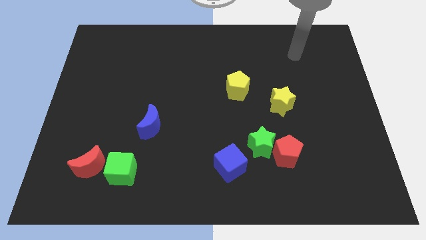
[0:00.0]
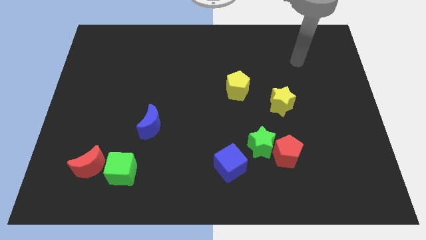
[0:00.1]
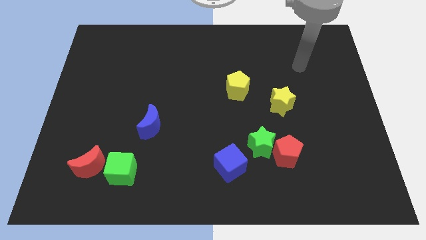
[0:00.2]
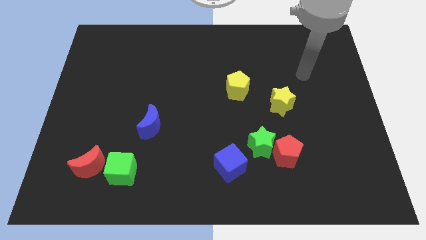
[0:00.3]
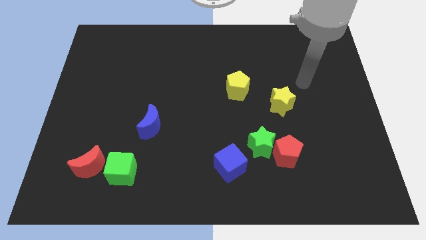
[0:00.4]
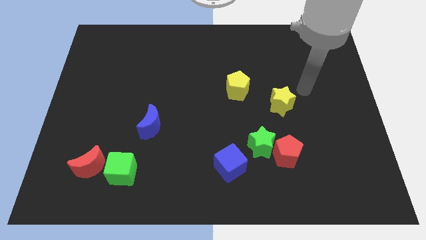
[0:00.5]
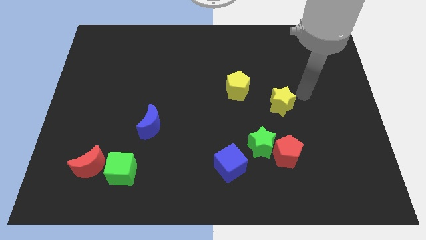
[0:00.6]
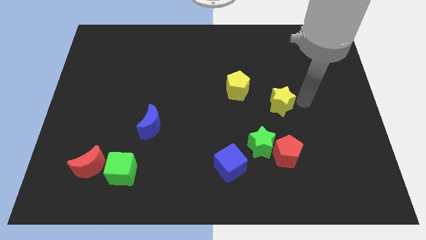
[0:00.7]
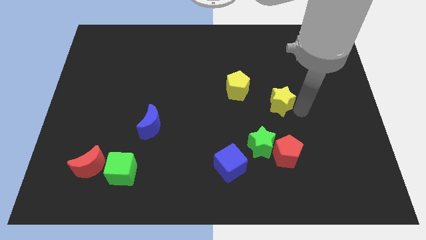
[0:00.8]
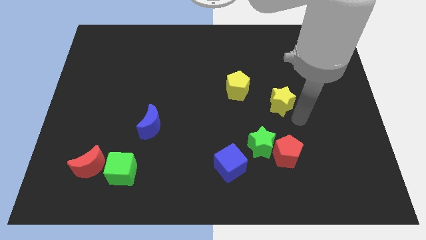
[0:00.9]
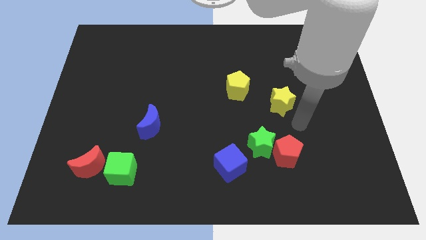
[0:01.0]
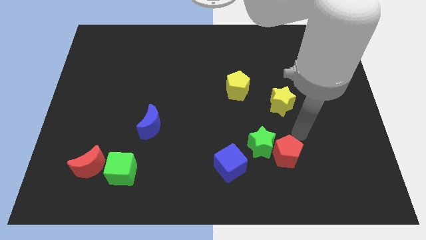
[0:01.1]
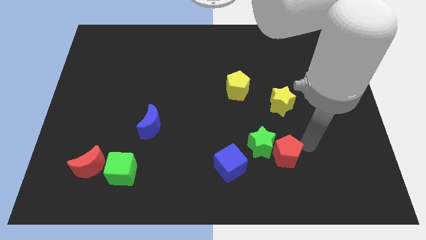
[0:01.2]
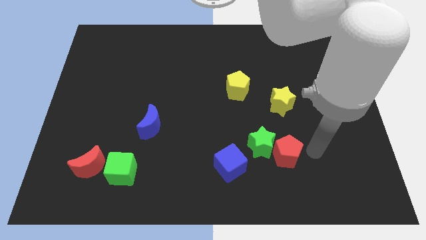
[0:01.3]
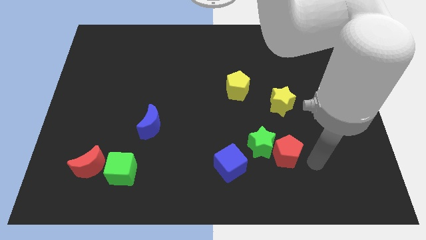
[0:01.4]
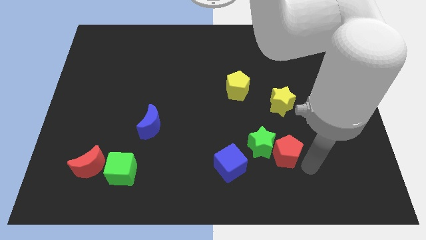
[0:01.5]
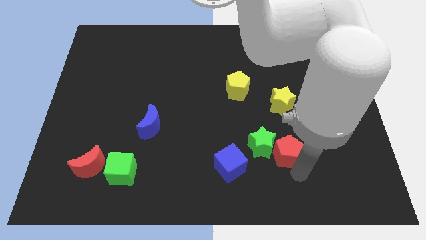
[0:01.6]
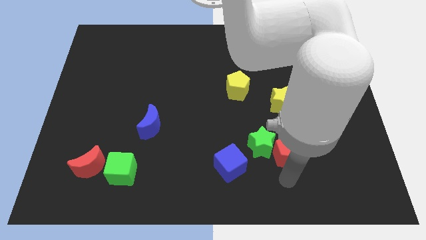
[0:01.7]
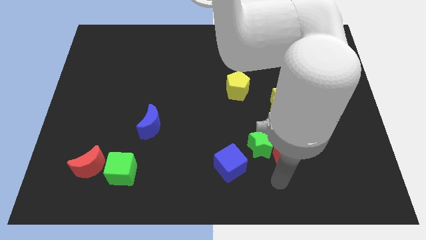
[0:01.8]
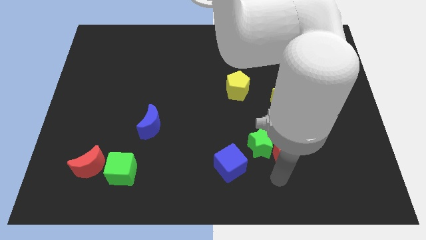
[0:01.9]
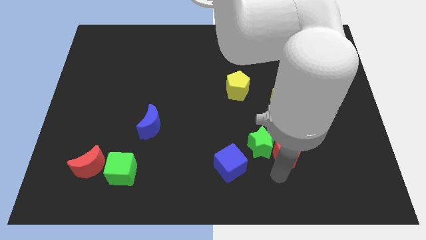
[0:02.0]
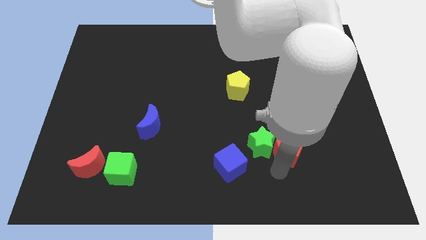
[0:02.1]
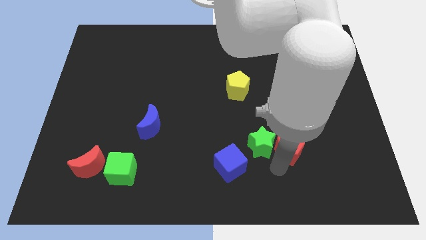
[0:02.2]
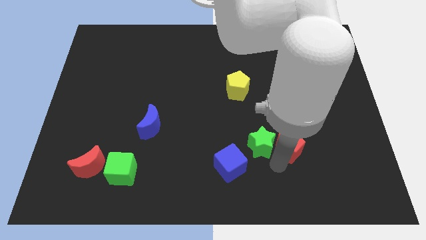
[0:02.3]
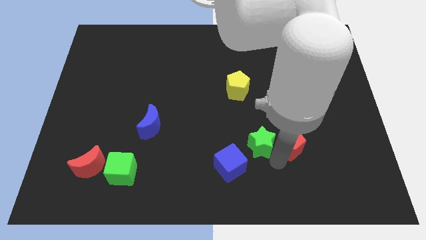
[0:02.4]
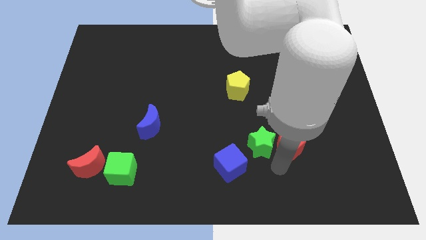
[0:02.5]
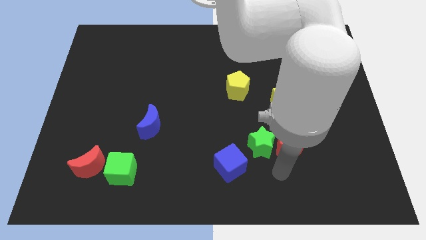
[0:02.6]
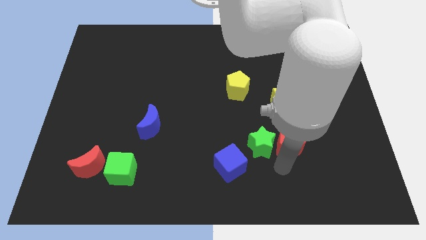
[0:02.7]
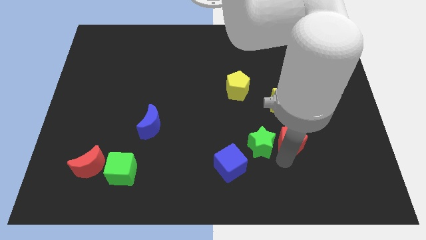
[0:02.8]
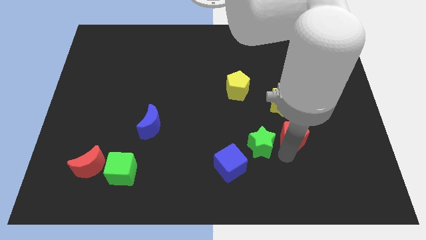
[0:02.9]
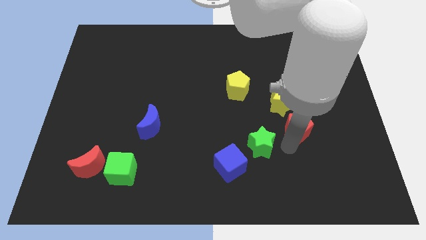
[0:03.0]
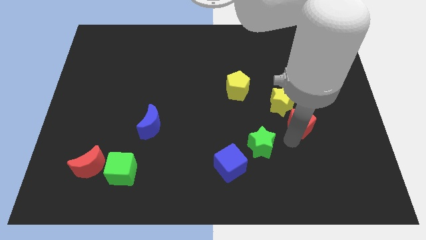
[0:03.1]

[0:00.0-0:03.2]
slide the red pentagon upwards a little

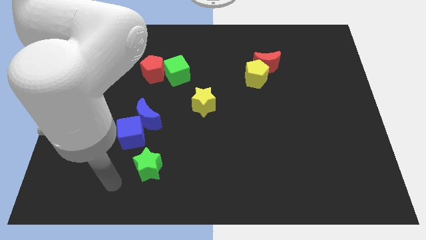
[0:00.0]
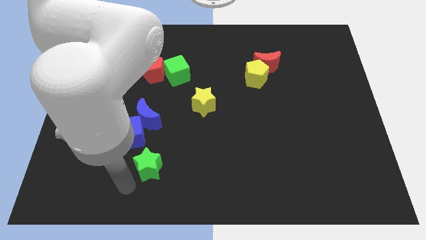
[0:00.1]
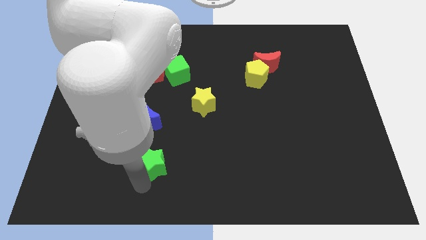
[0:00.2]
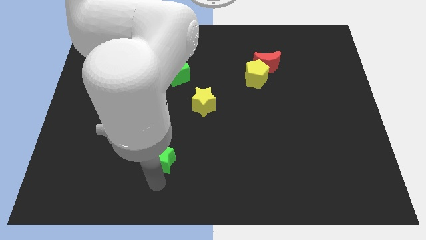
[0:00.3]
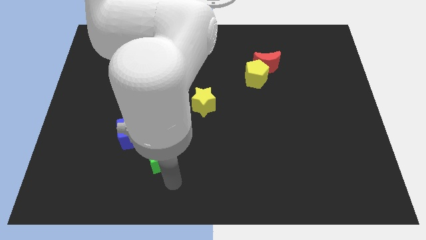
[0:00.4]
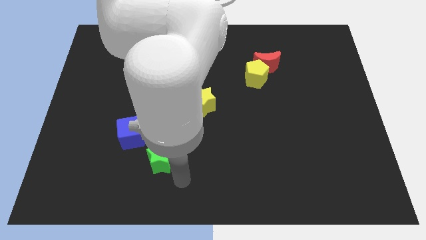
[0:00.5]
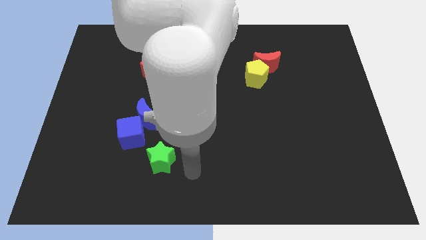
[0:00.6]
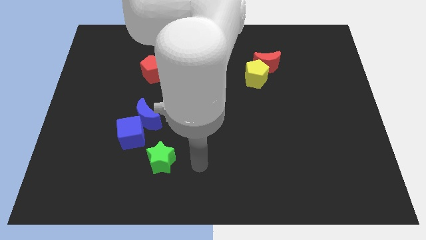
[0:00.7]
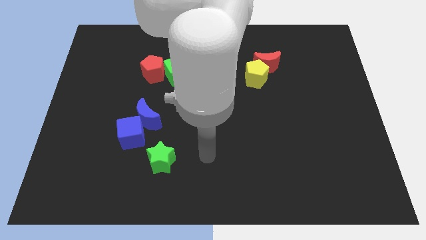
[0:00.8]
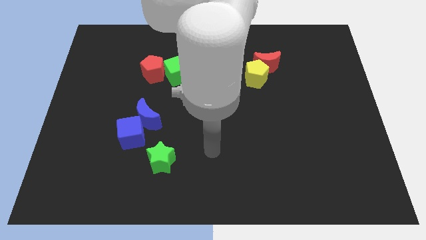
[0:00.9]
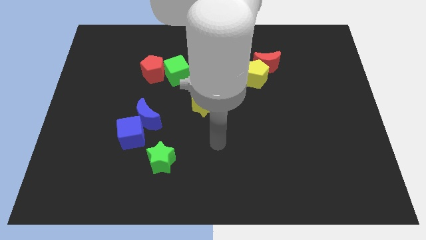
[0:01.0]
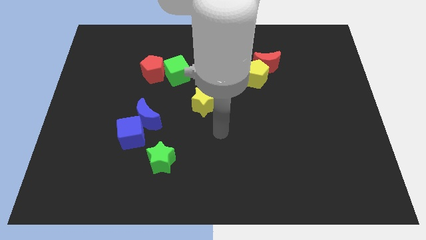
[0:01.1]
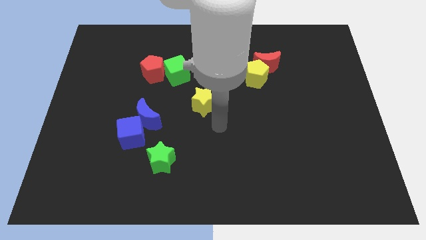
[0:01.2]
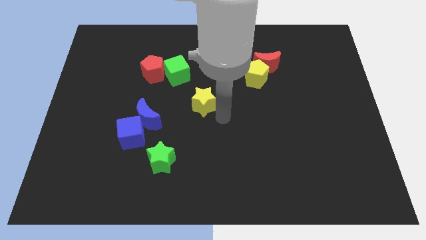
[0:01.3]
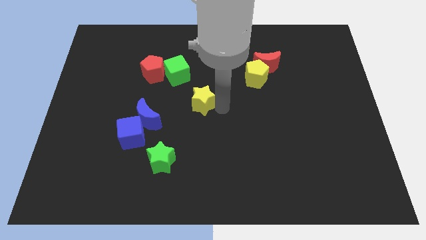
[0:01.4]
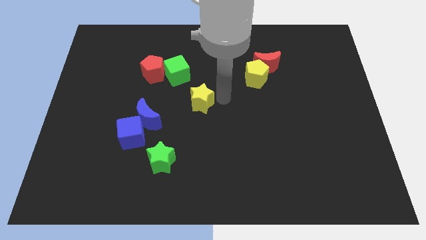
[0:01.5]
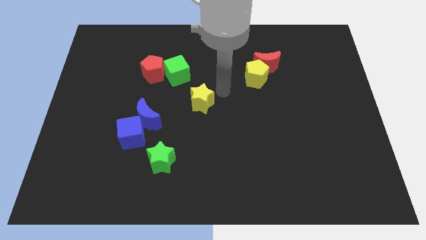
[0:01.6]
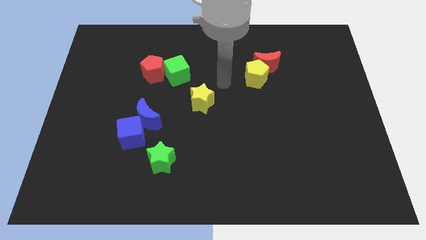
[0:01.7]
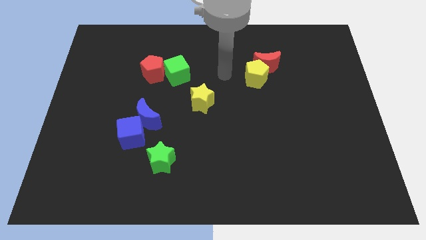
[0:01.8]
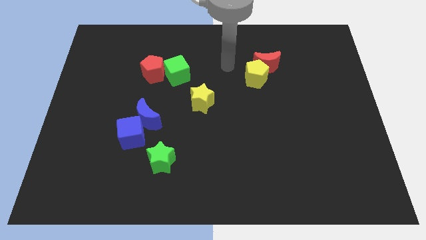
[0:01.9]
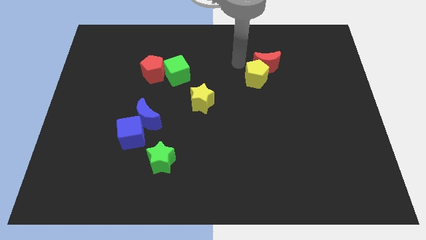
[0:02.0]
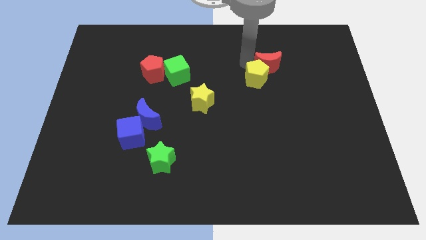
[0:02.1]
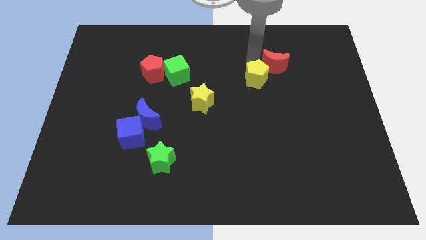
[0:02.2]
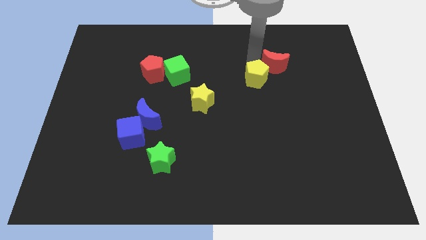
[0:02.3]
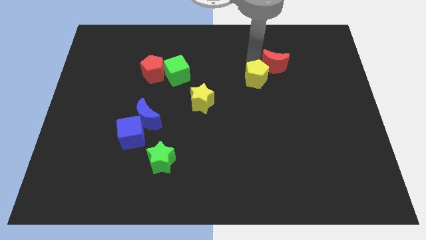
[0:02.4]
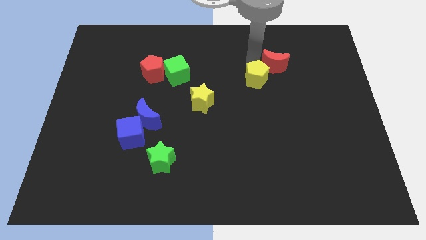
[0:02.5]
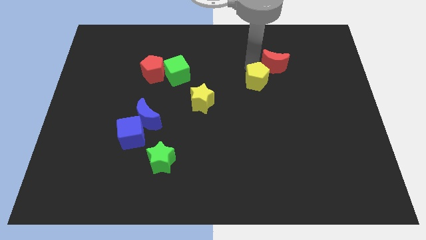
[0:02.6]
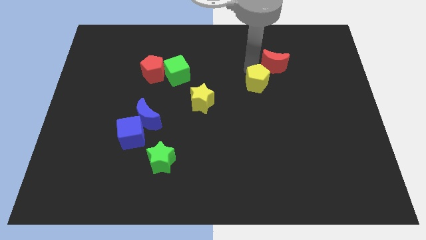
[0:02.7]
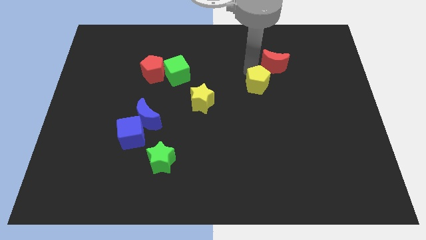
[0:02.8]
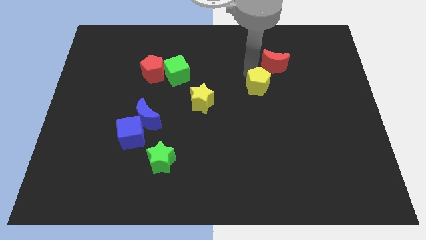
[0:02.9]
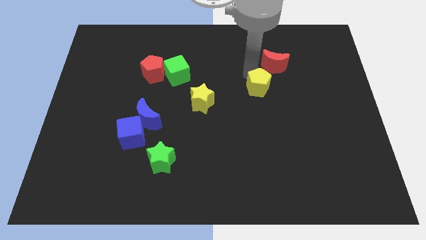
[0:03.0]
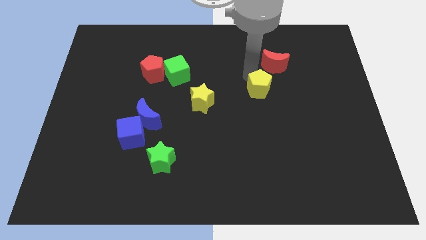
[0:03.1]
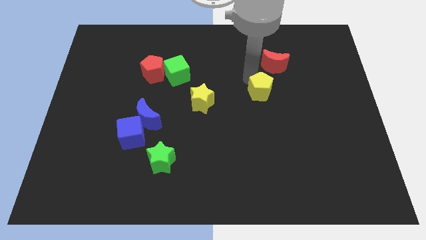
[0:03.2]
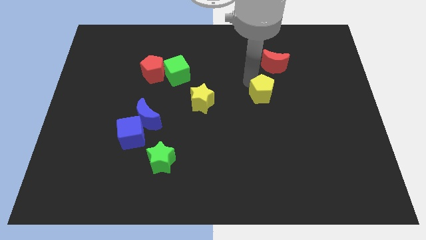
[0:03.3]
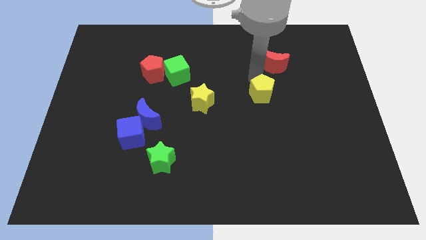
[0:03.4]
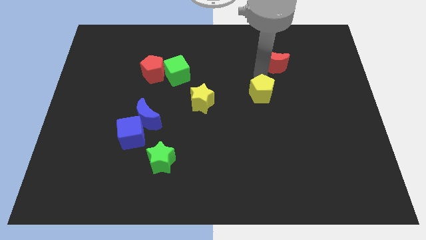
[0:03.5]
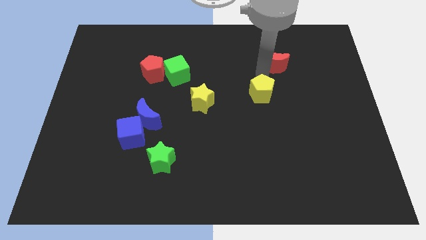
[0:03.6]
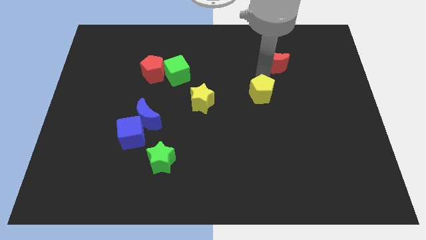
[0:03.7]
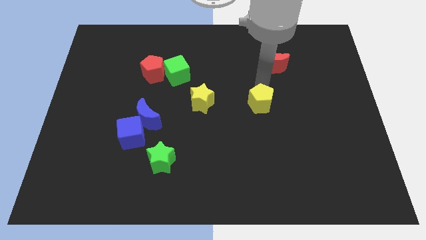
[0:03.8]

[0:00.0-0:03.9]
move the yellow pentagon downwards a little

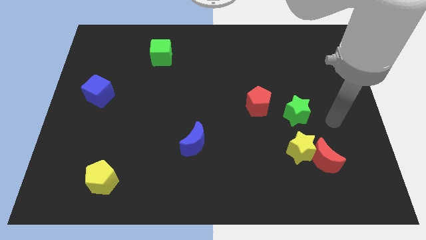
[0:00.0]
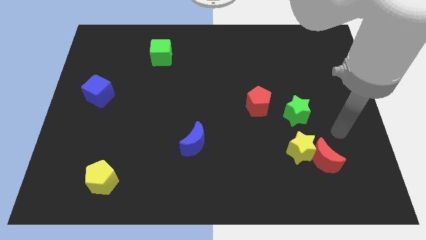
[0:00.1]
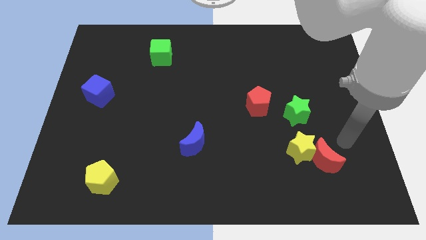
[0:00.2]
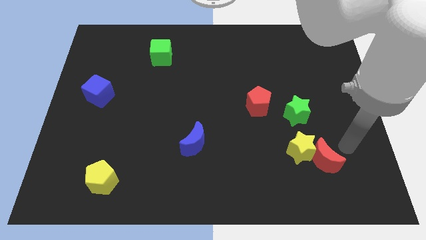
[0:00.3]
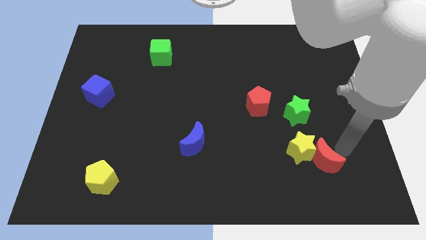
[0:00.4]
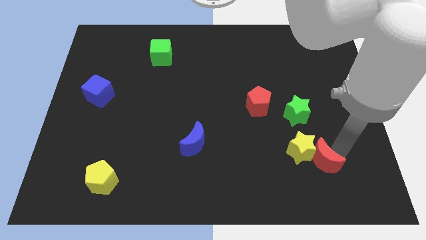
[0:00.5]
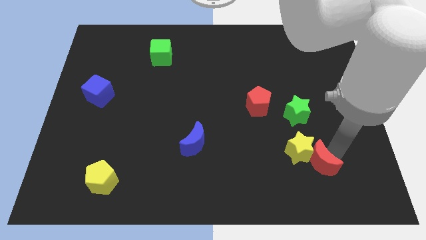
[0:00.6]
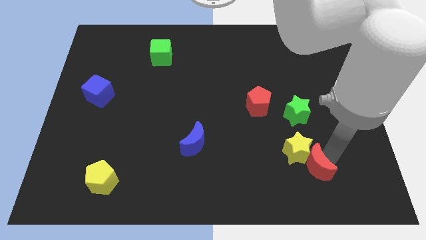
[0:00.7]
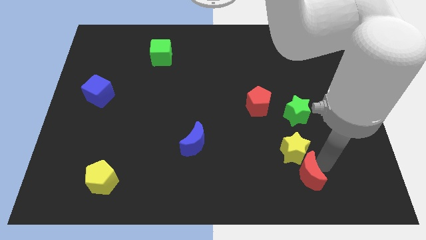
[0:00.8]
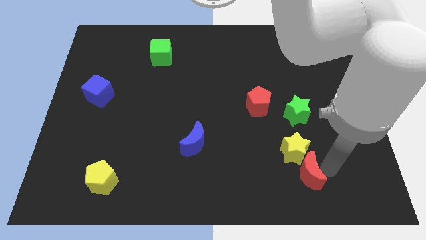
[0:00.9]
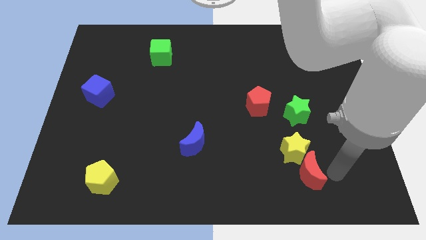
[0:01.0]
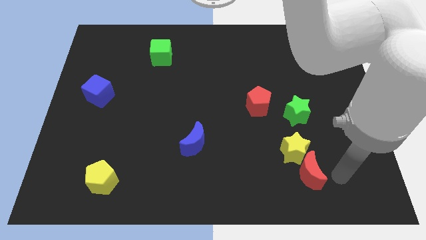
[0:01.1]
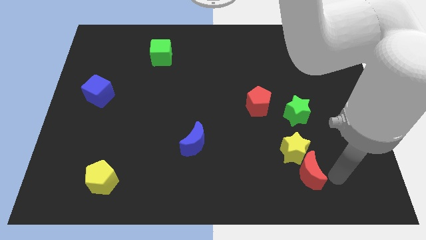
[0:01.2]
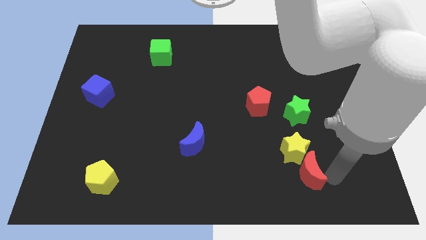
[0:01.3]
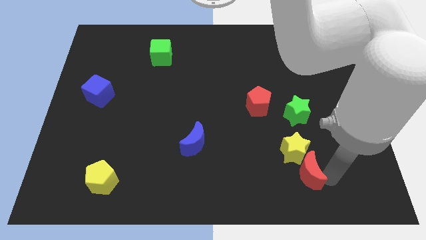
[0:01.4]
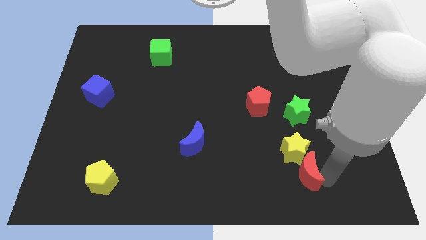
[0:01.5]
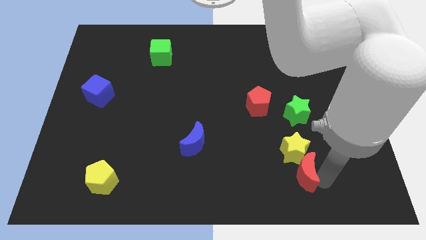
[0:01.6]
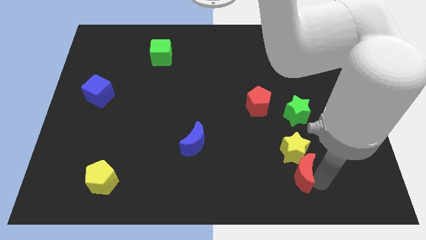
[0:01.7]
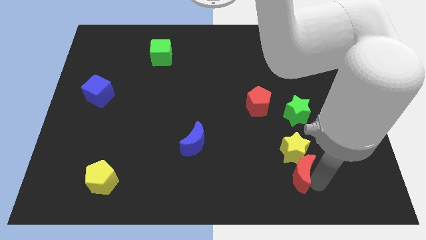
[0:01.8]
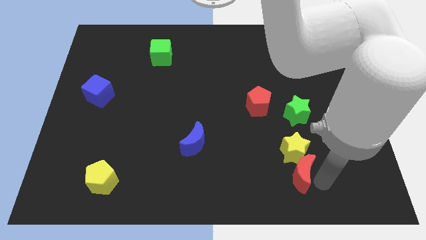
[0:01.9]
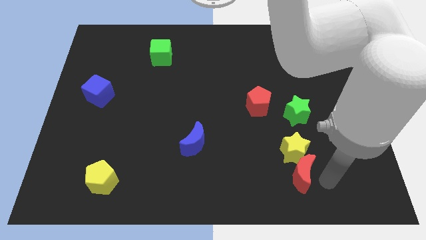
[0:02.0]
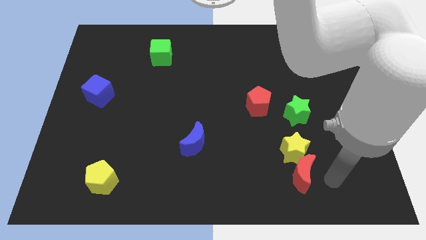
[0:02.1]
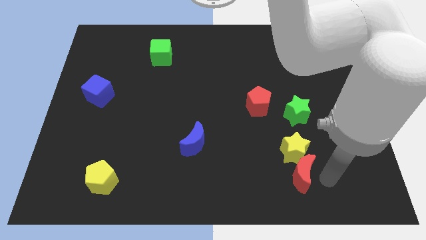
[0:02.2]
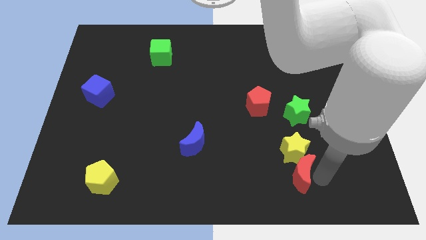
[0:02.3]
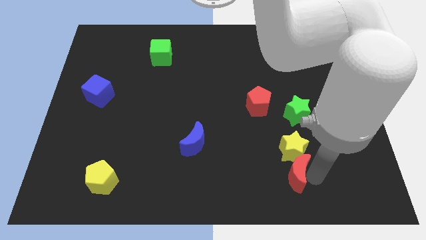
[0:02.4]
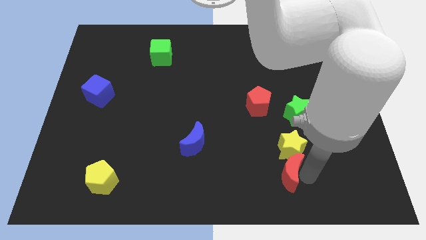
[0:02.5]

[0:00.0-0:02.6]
move the red moon to the left a bit
